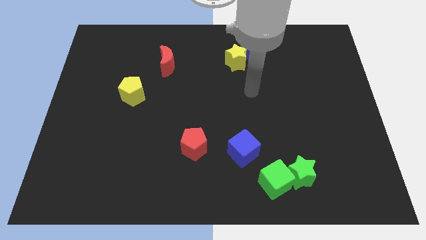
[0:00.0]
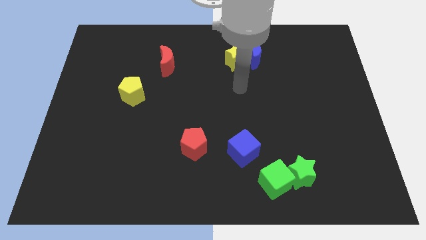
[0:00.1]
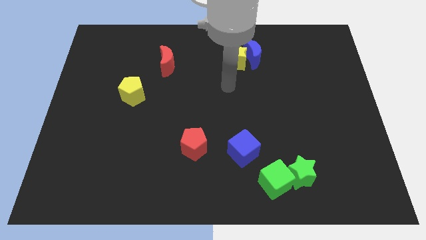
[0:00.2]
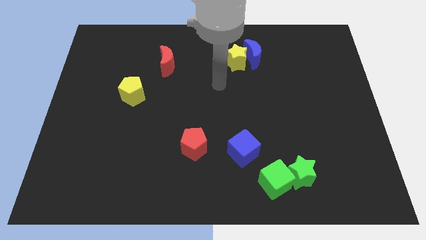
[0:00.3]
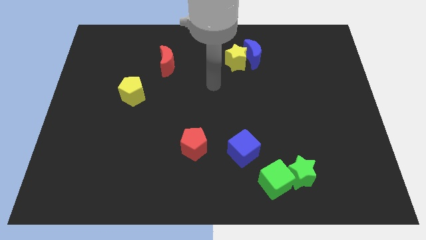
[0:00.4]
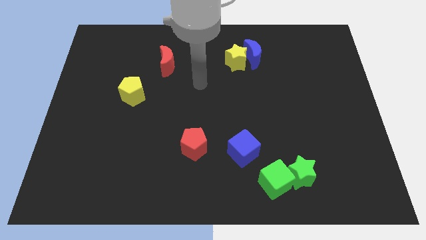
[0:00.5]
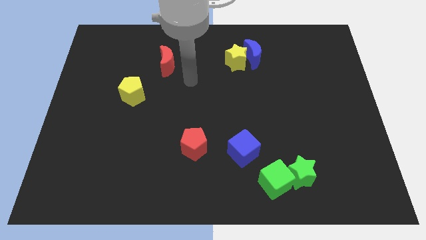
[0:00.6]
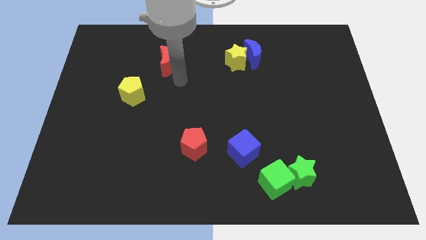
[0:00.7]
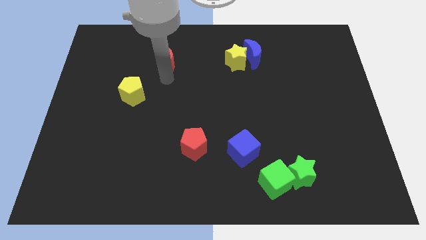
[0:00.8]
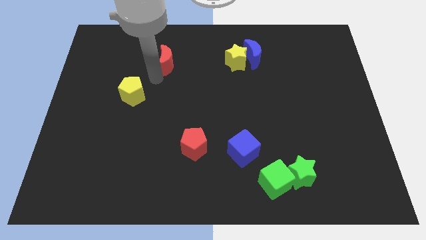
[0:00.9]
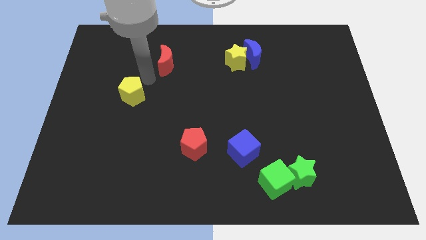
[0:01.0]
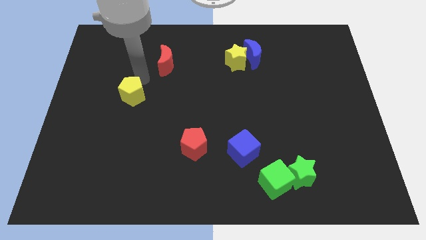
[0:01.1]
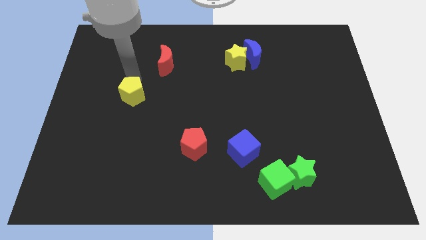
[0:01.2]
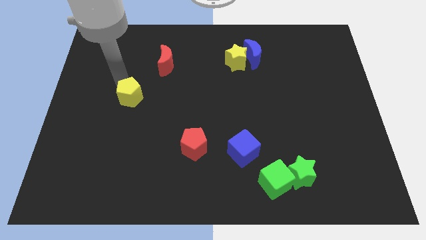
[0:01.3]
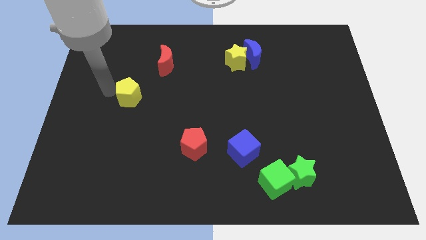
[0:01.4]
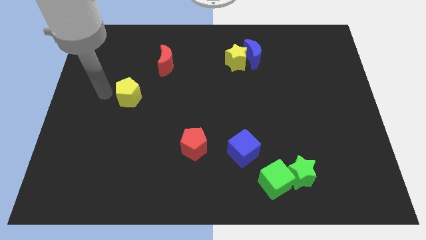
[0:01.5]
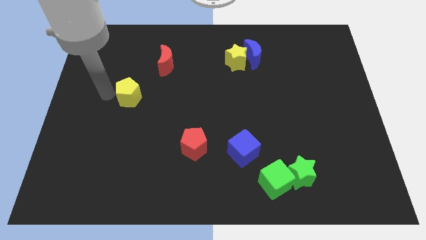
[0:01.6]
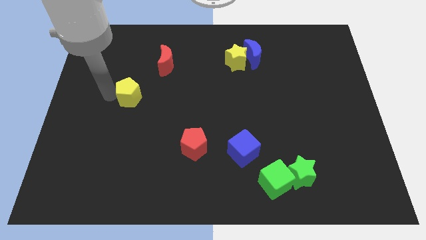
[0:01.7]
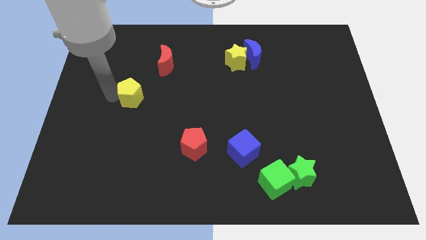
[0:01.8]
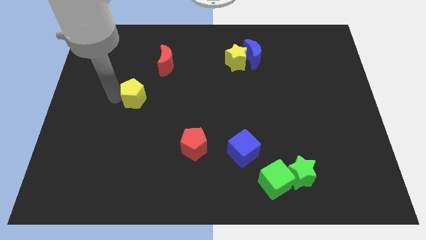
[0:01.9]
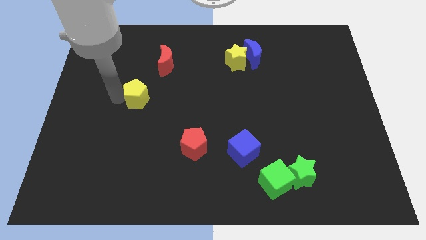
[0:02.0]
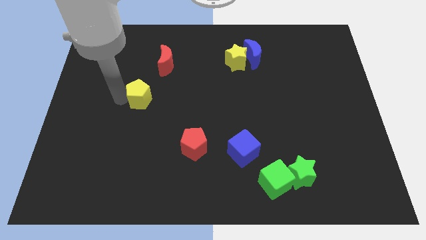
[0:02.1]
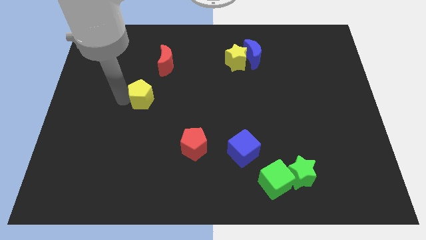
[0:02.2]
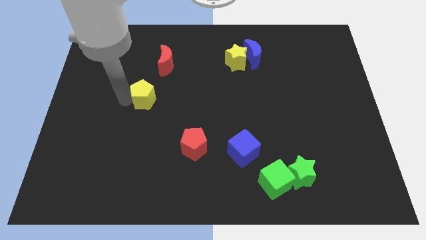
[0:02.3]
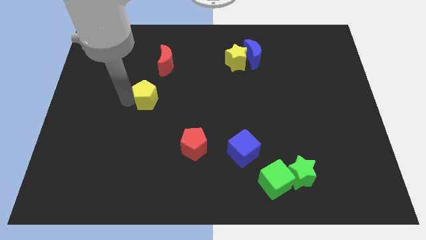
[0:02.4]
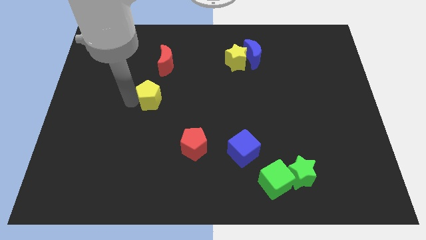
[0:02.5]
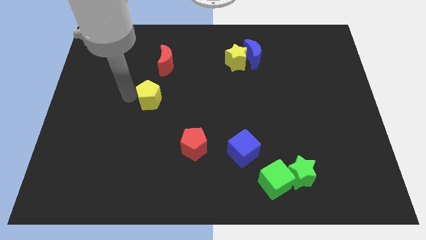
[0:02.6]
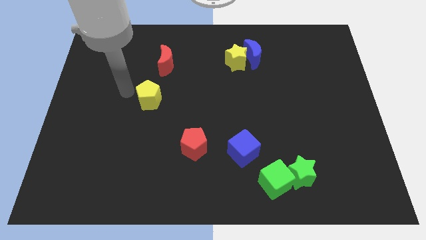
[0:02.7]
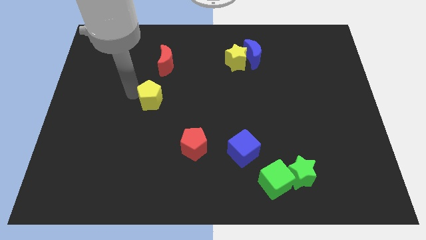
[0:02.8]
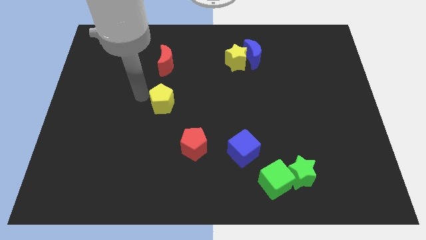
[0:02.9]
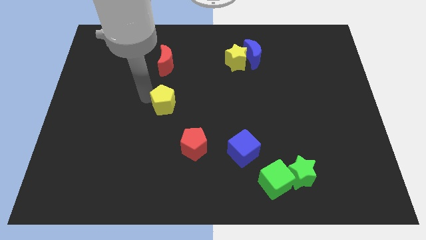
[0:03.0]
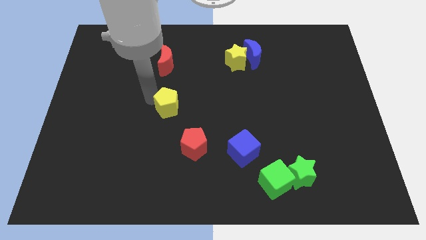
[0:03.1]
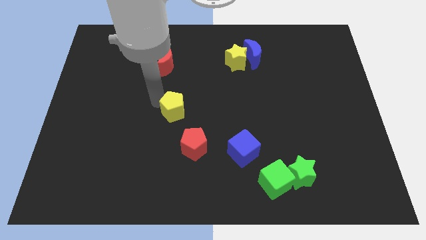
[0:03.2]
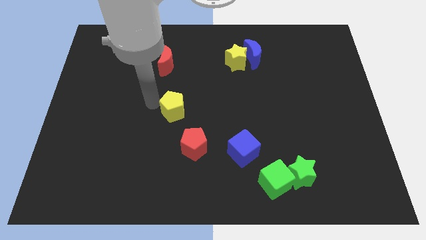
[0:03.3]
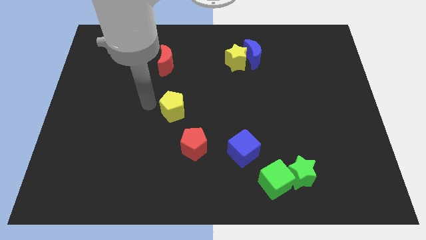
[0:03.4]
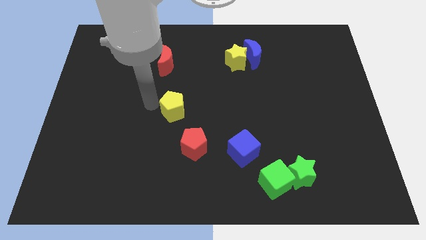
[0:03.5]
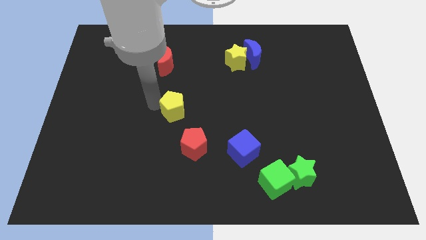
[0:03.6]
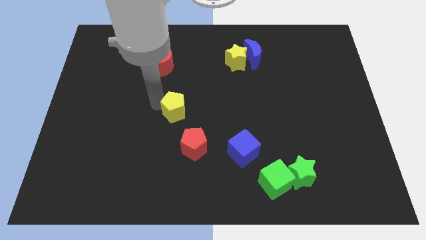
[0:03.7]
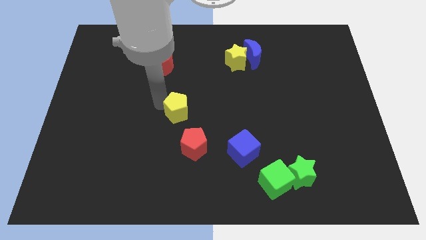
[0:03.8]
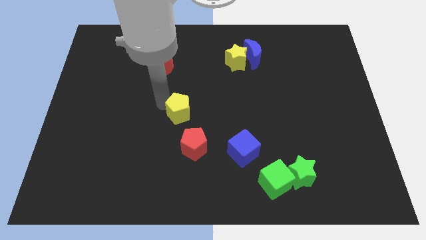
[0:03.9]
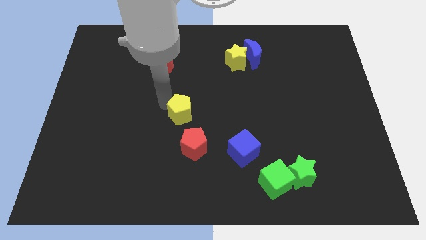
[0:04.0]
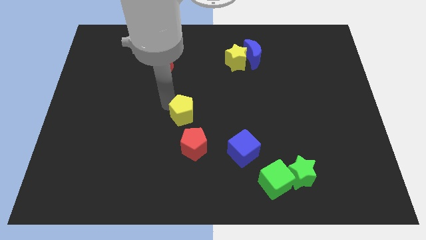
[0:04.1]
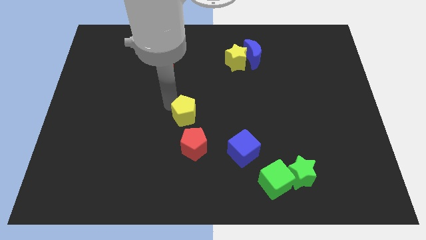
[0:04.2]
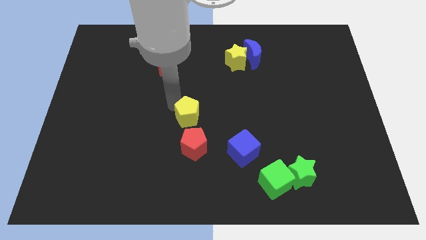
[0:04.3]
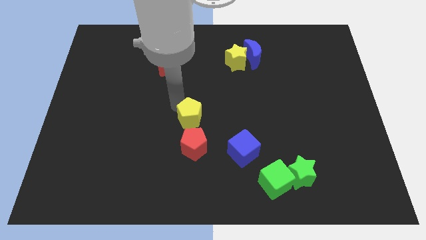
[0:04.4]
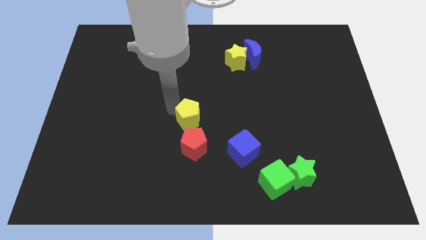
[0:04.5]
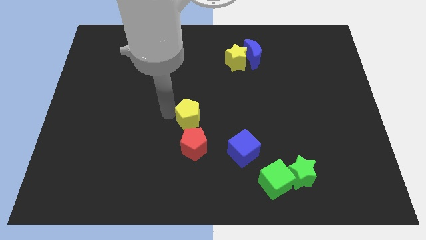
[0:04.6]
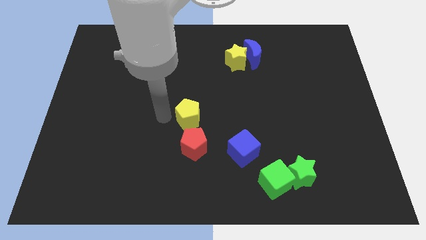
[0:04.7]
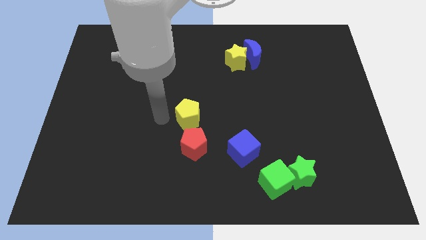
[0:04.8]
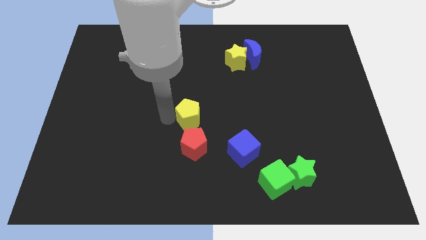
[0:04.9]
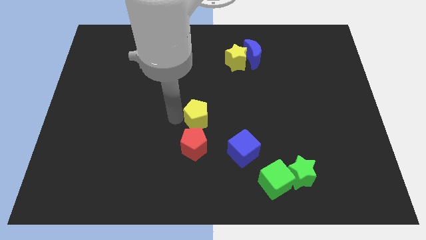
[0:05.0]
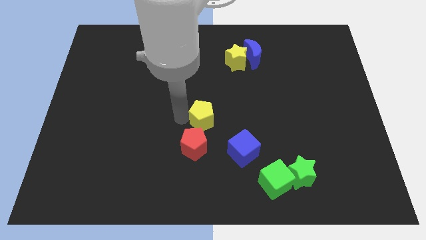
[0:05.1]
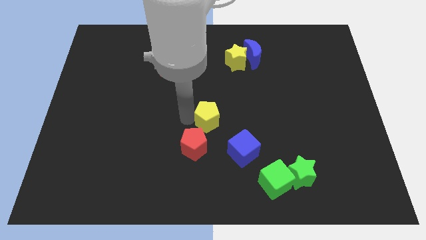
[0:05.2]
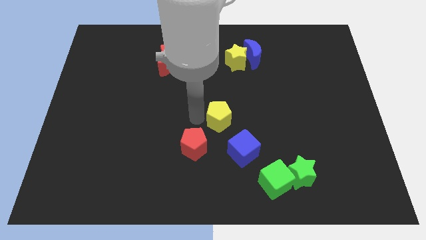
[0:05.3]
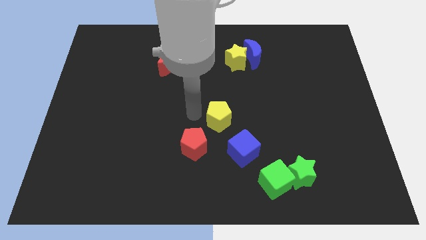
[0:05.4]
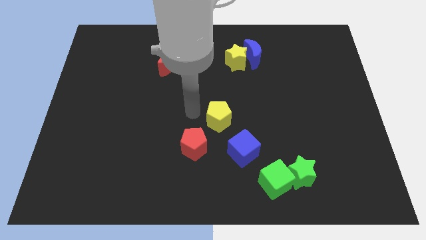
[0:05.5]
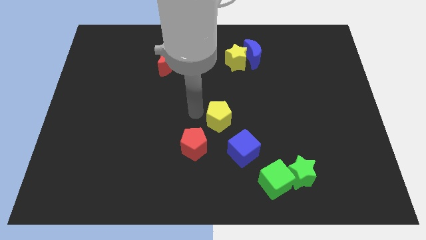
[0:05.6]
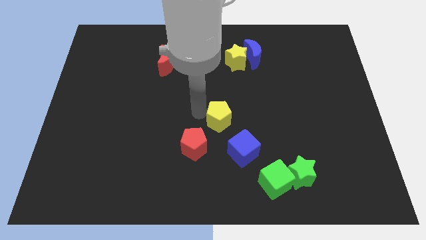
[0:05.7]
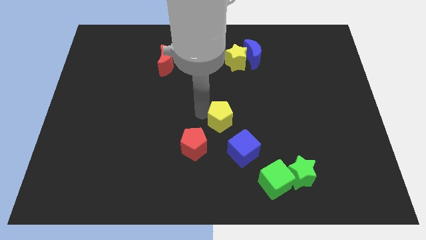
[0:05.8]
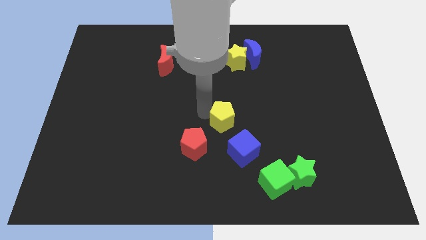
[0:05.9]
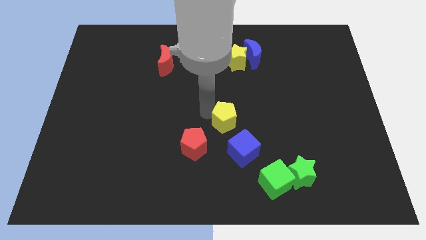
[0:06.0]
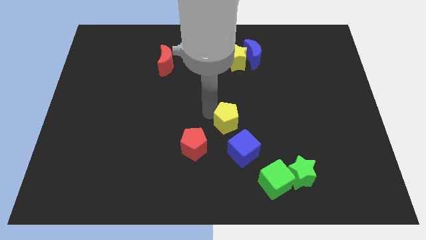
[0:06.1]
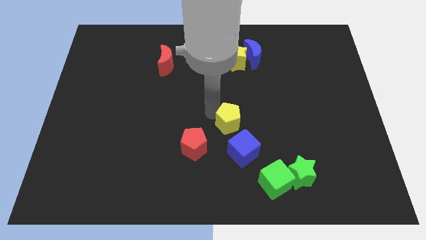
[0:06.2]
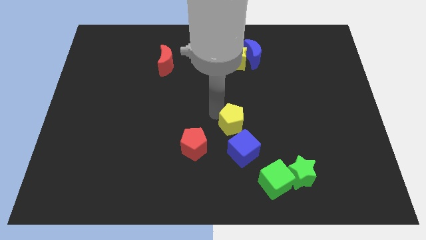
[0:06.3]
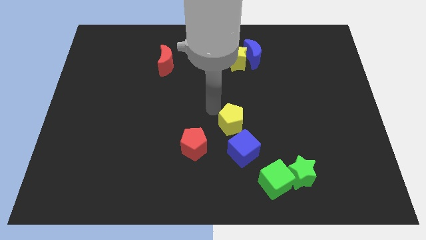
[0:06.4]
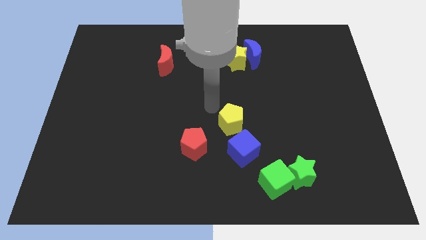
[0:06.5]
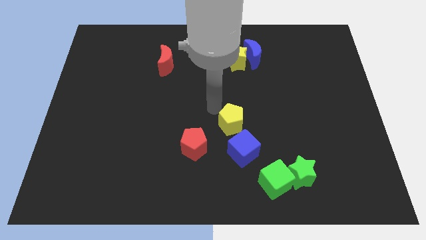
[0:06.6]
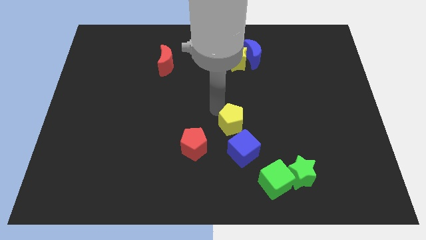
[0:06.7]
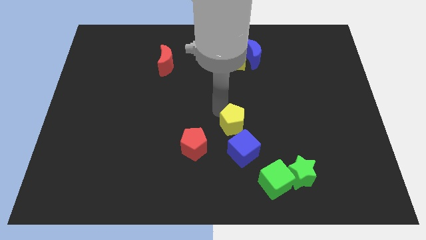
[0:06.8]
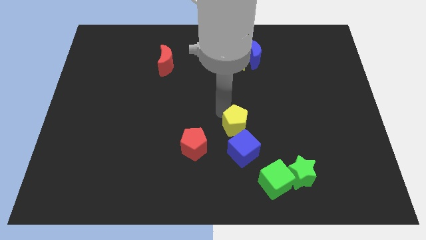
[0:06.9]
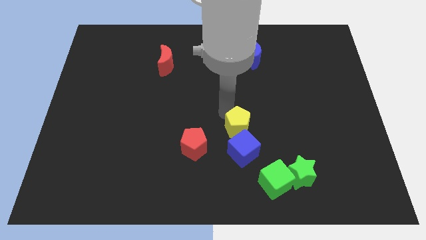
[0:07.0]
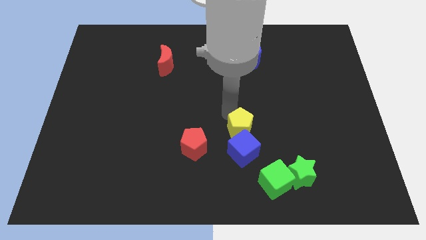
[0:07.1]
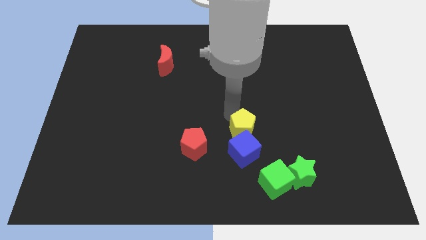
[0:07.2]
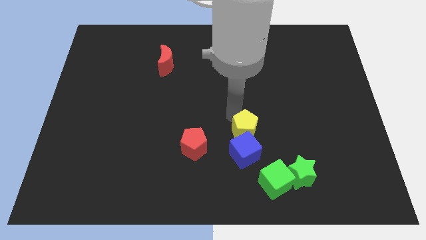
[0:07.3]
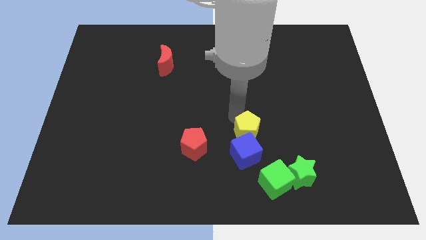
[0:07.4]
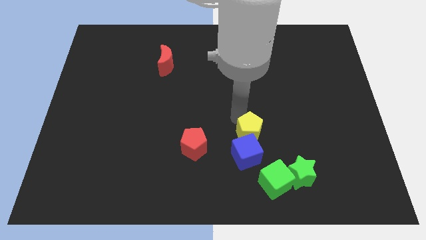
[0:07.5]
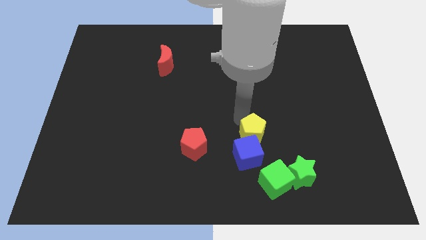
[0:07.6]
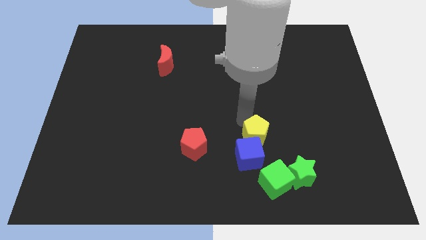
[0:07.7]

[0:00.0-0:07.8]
put the yellow pentagon to the top left of the green star
